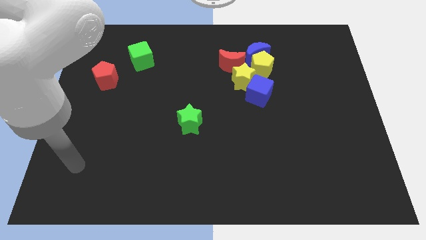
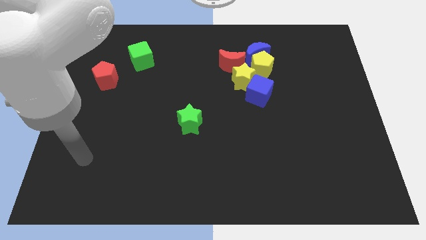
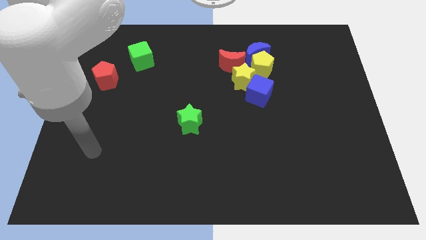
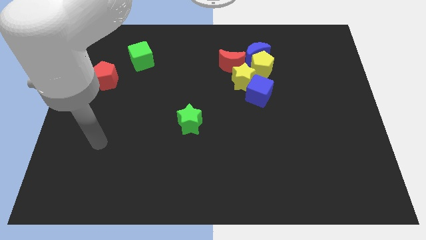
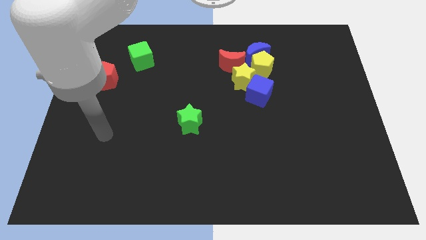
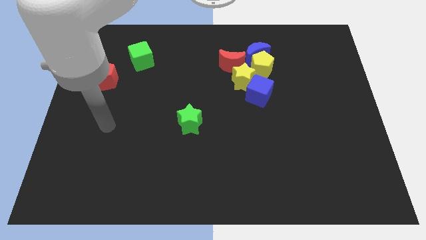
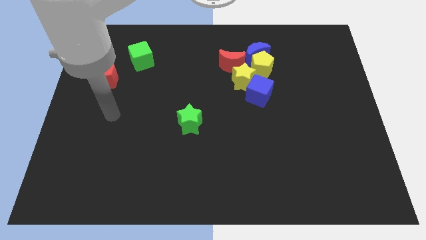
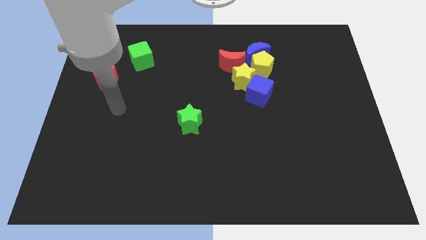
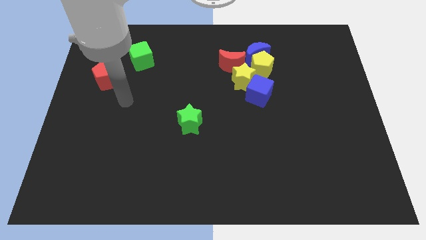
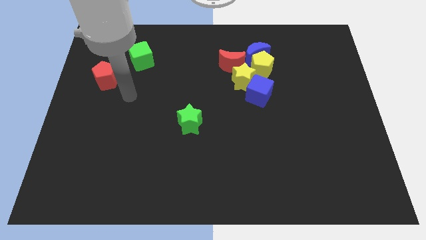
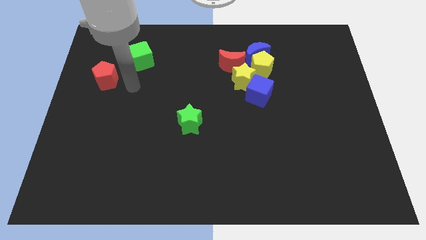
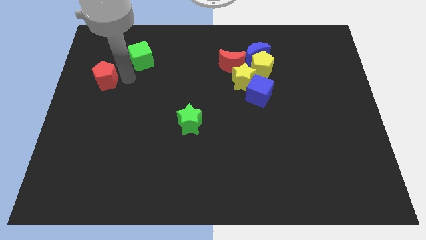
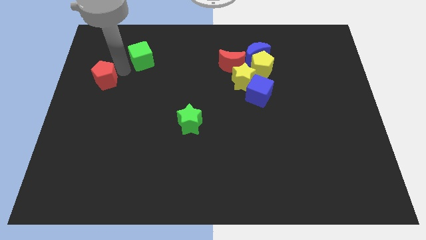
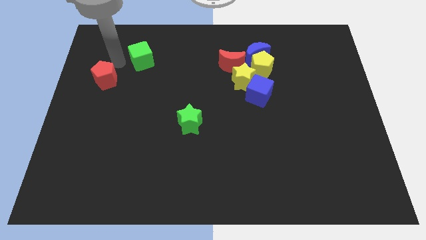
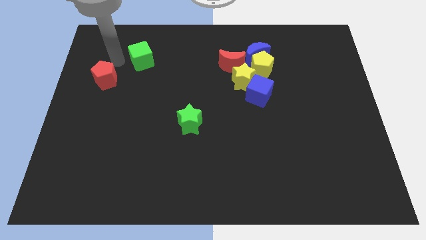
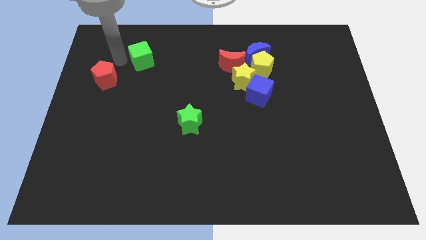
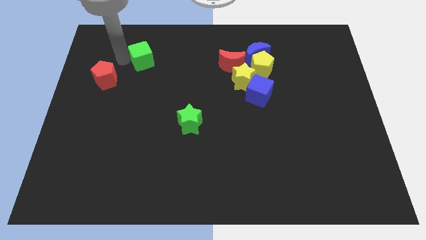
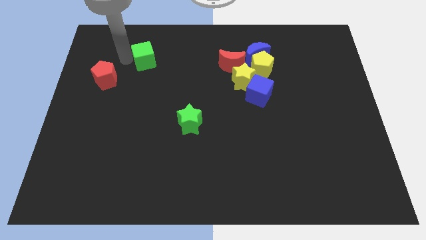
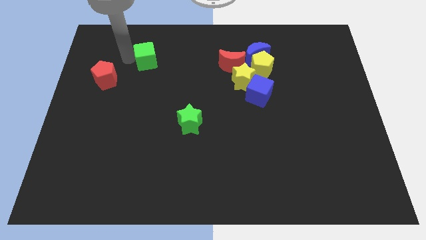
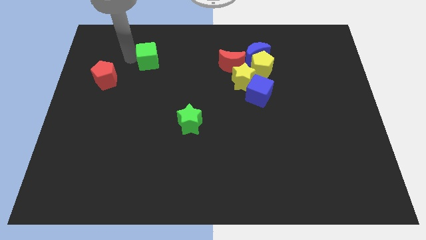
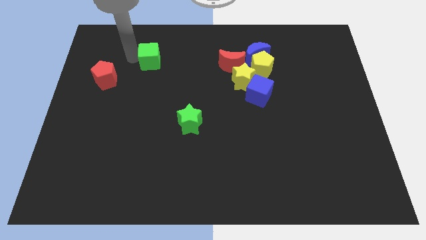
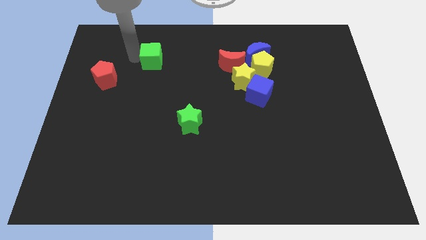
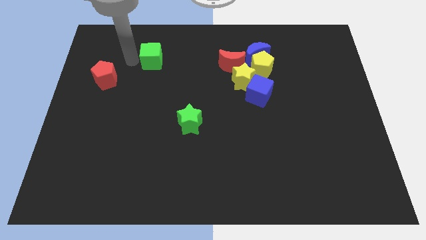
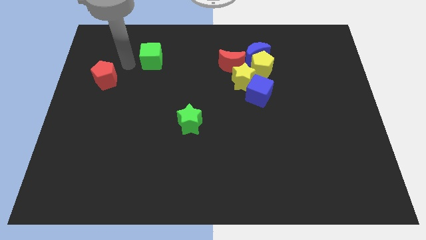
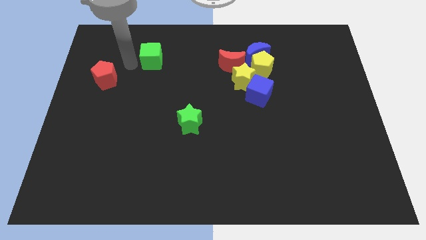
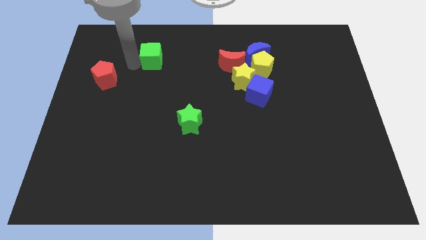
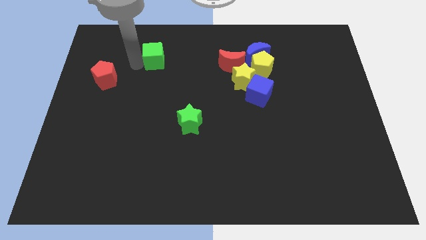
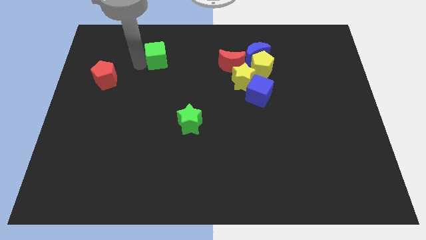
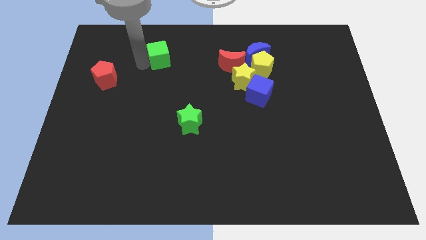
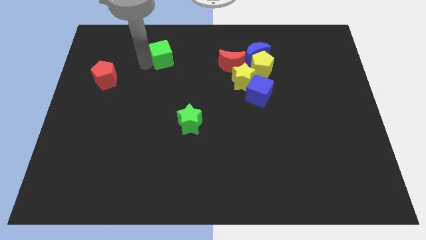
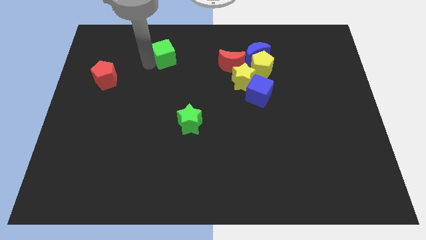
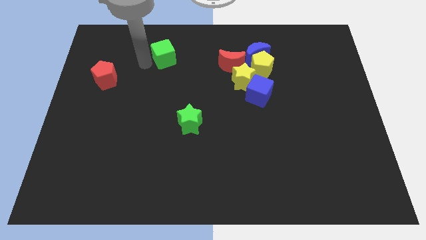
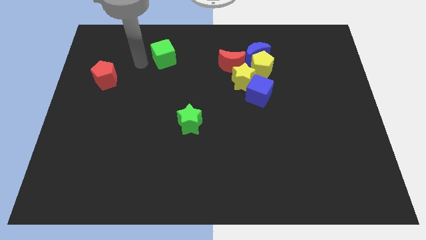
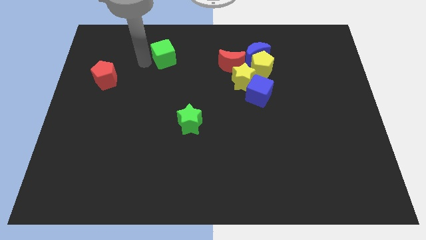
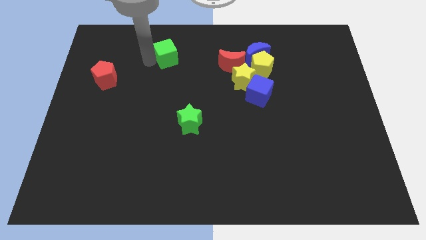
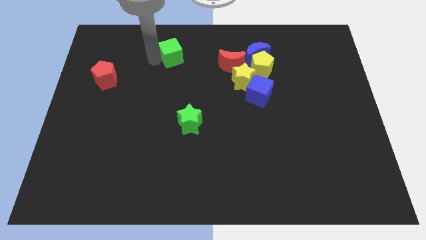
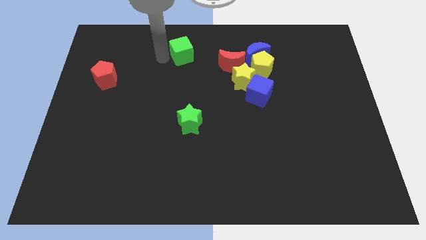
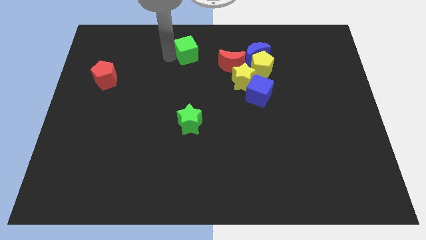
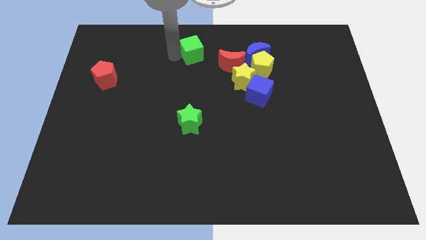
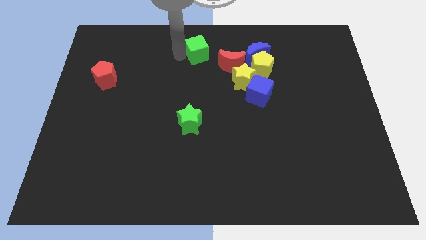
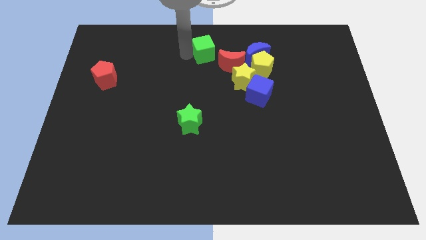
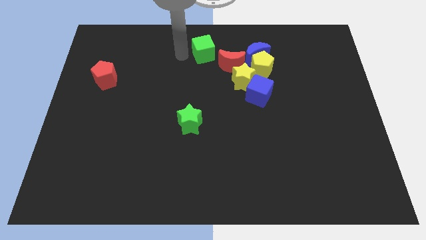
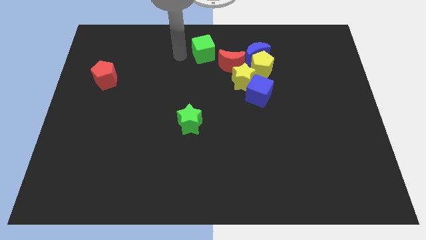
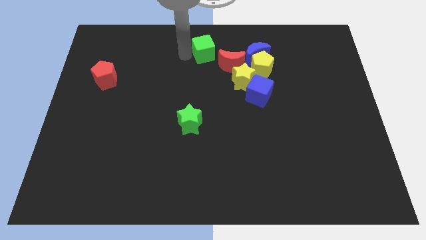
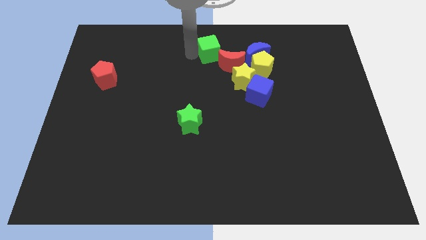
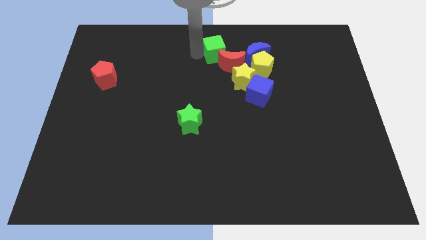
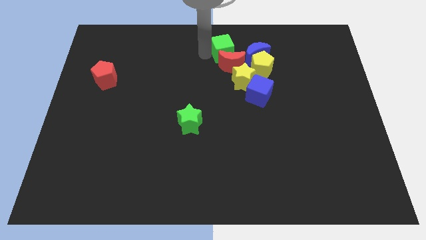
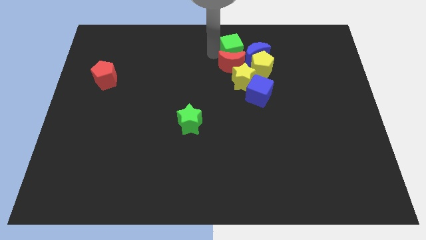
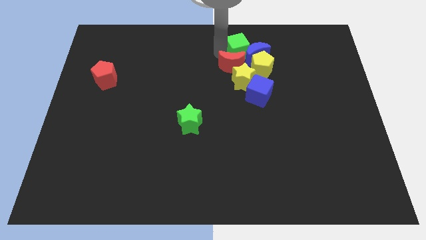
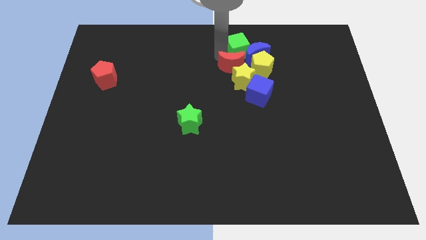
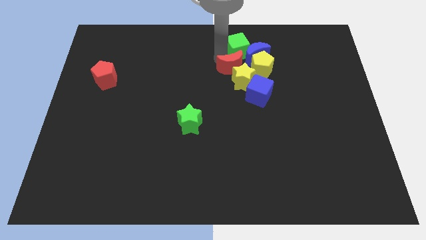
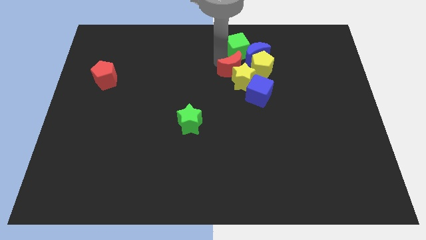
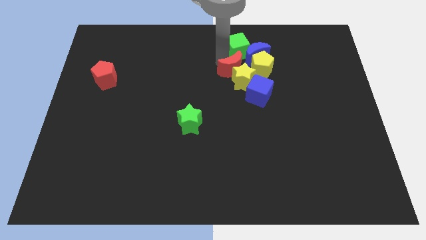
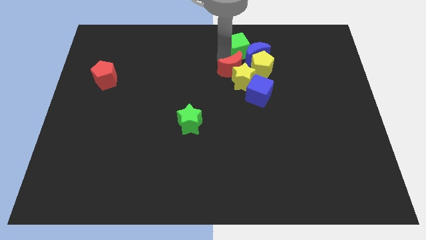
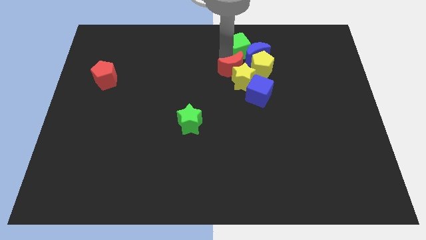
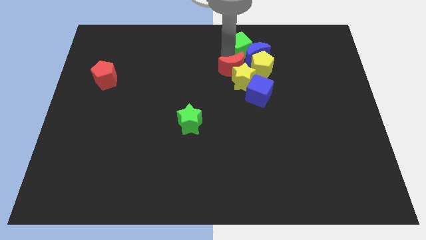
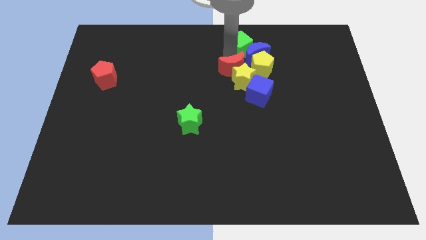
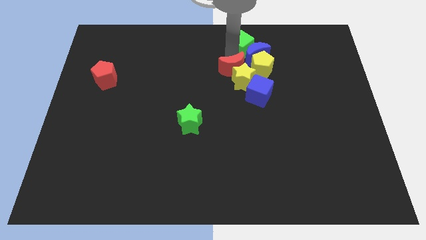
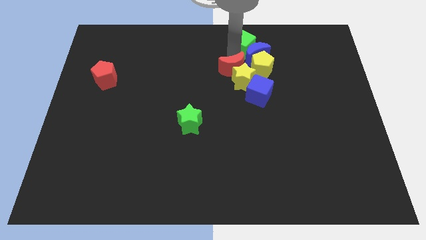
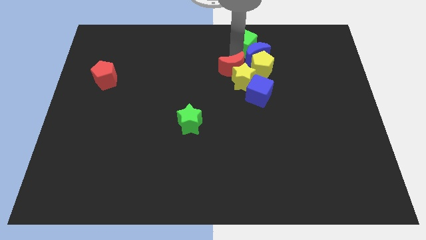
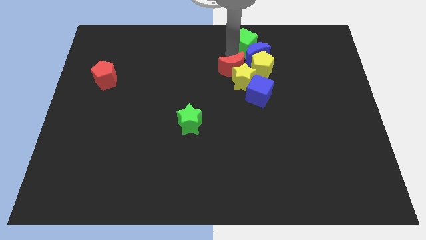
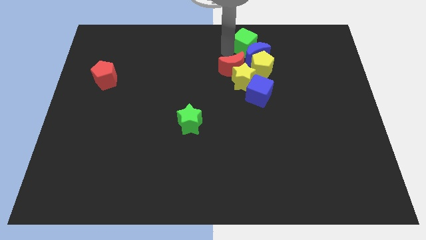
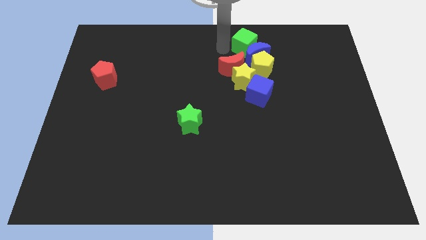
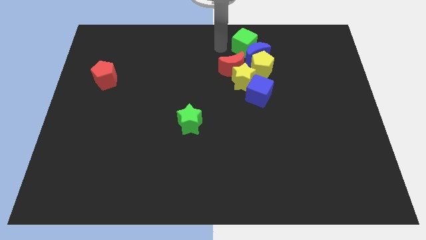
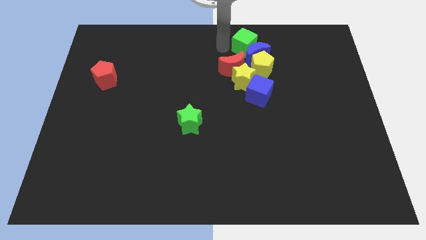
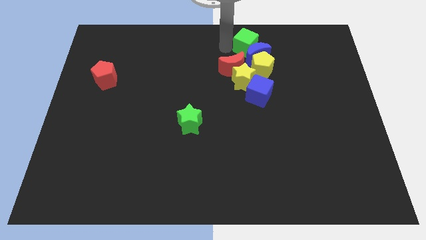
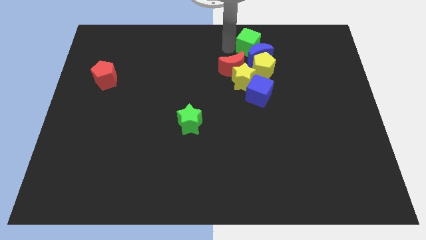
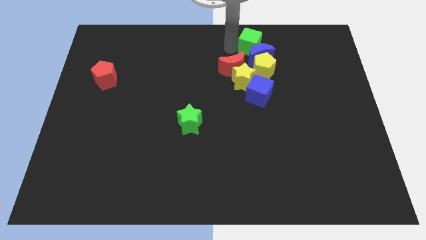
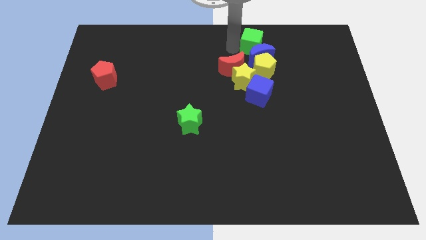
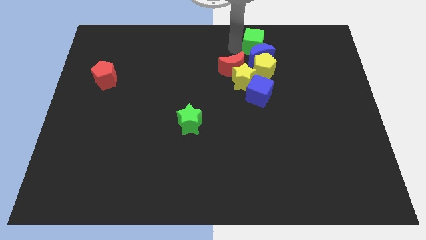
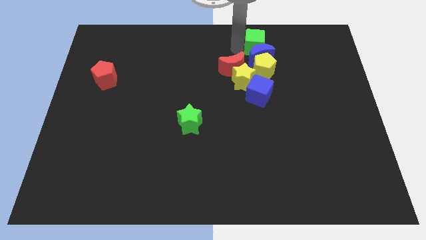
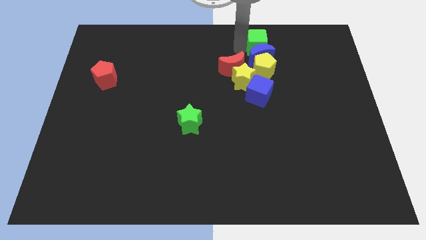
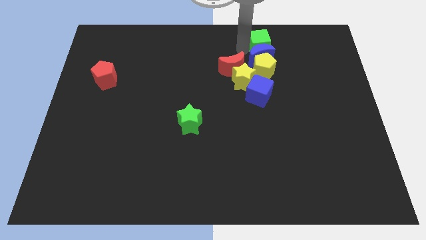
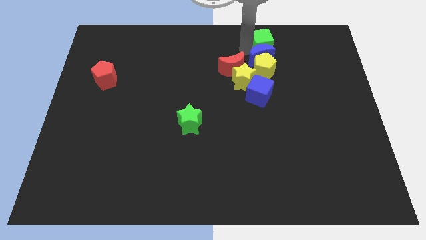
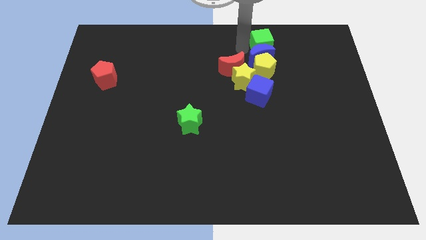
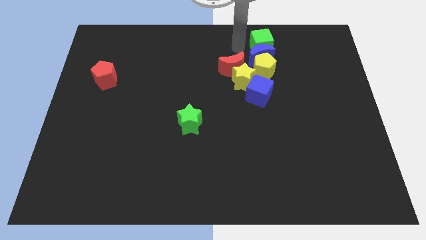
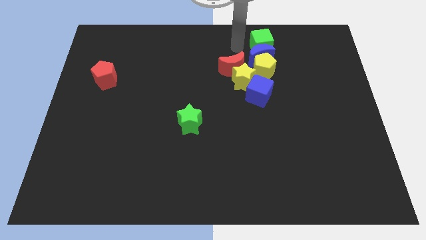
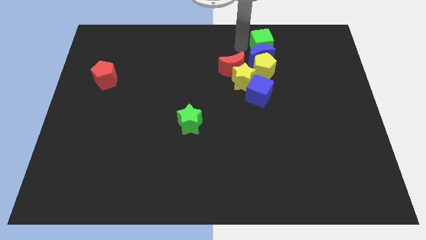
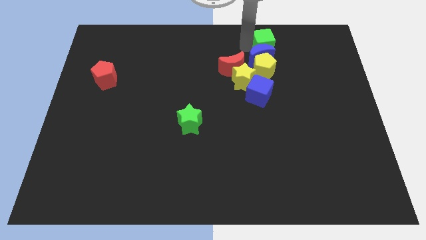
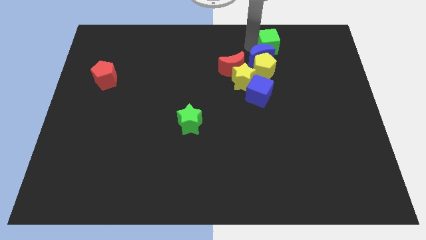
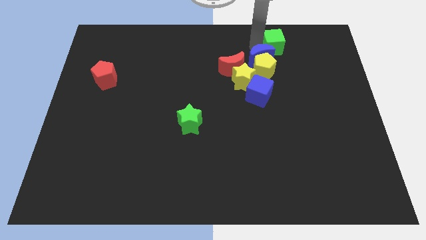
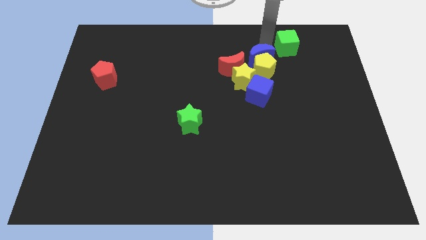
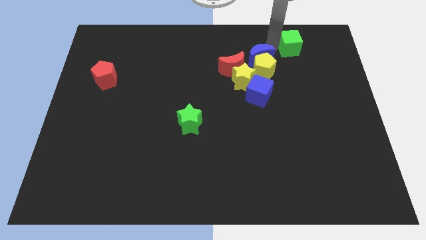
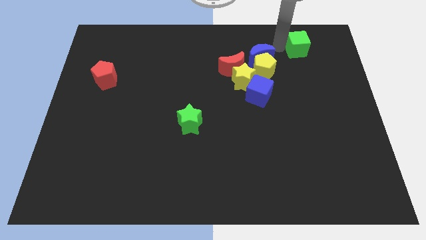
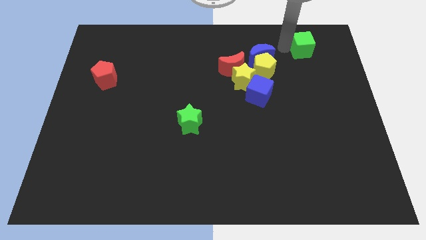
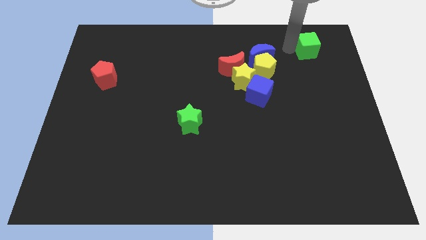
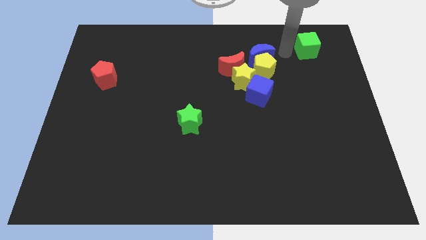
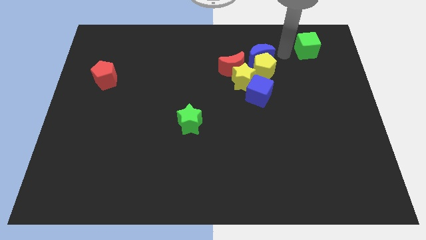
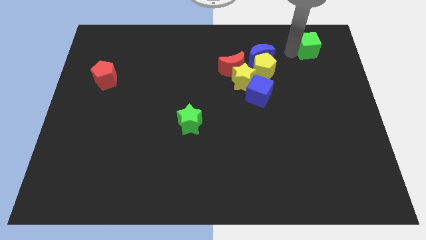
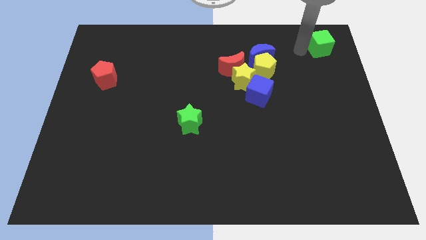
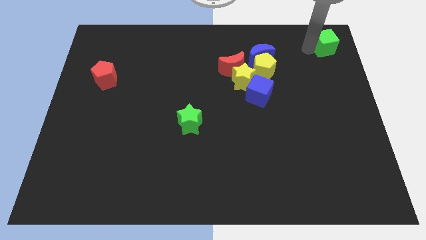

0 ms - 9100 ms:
push the green cube to the top right
